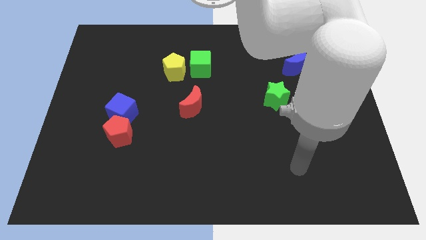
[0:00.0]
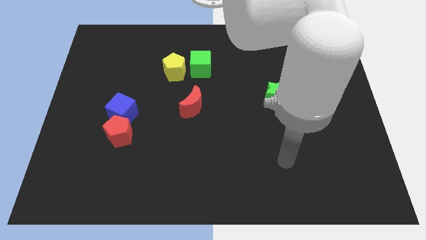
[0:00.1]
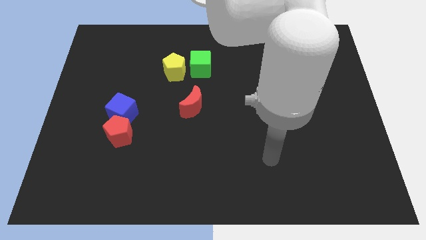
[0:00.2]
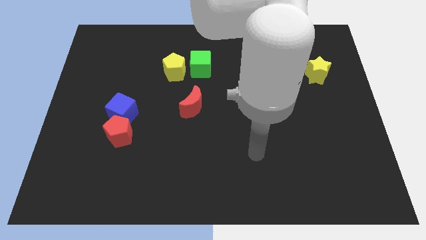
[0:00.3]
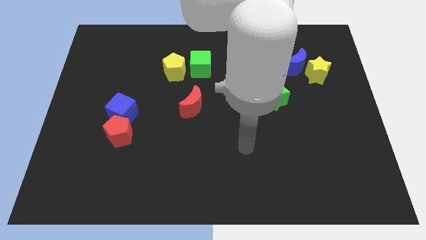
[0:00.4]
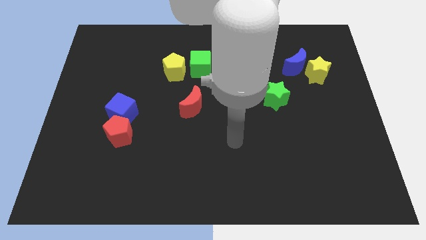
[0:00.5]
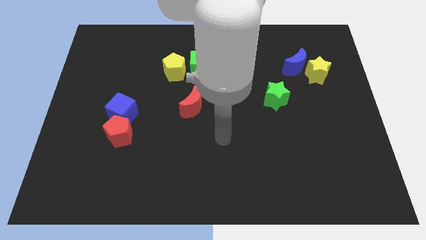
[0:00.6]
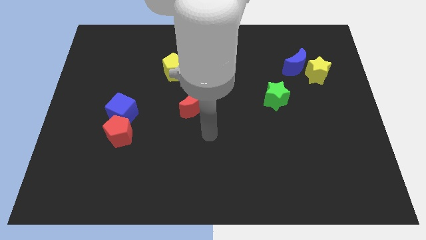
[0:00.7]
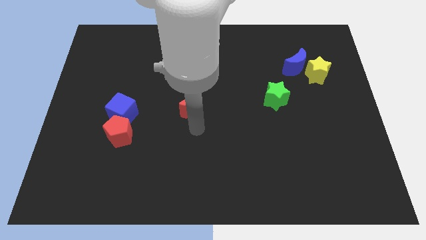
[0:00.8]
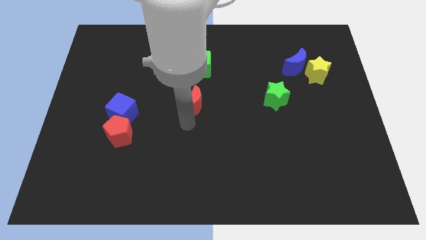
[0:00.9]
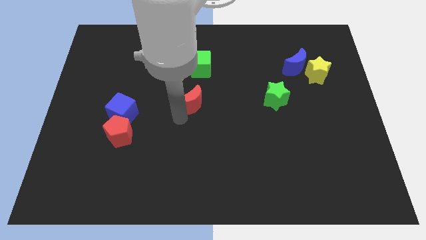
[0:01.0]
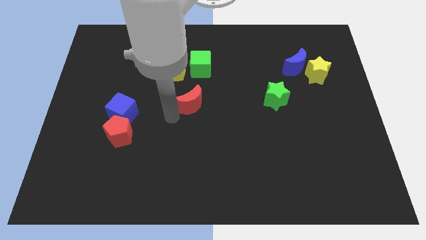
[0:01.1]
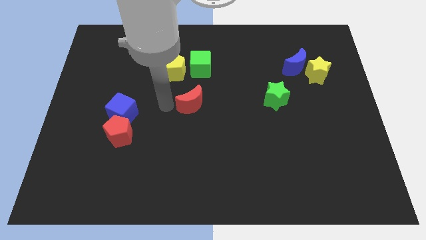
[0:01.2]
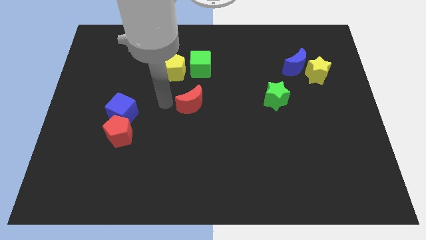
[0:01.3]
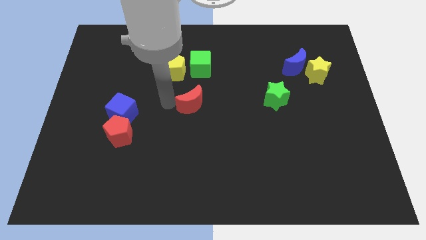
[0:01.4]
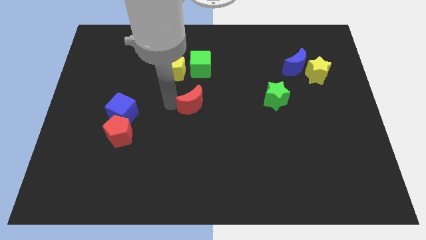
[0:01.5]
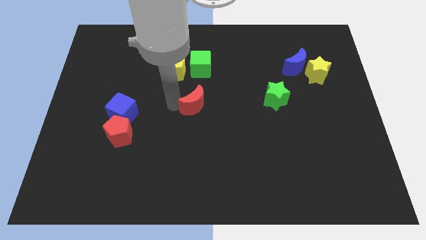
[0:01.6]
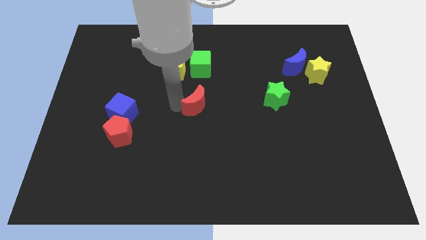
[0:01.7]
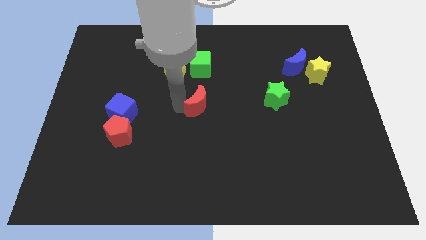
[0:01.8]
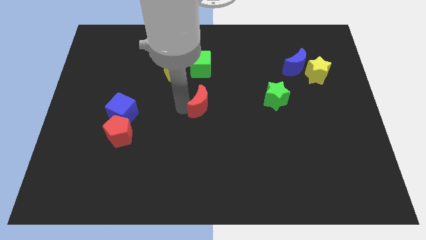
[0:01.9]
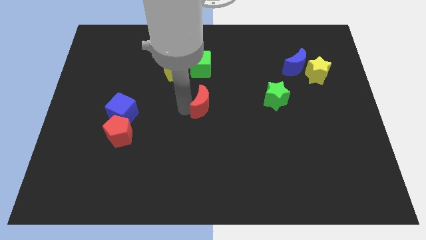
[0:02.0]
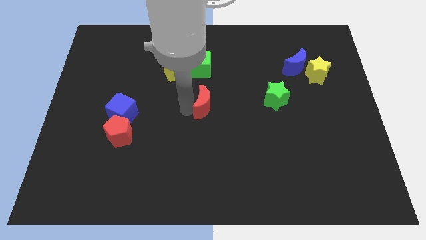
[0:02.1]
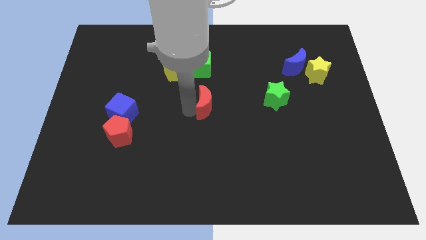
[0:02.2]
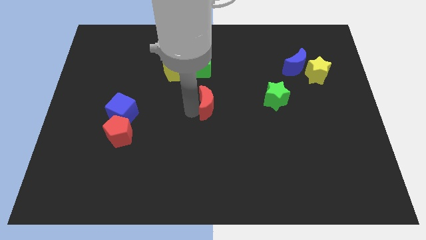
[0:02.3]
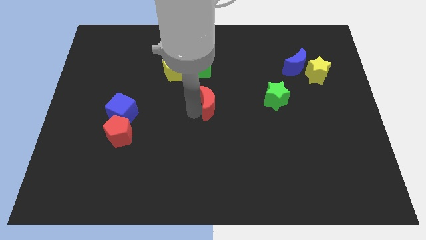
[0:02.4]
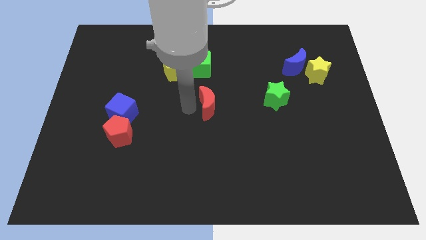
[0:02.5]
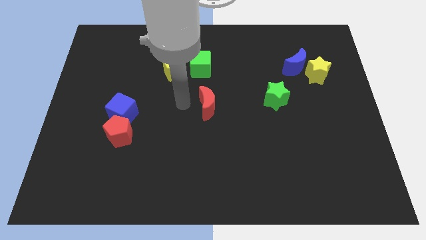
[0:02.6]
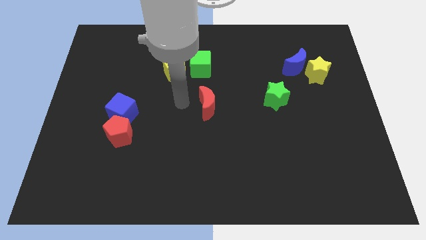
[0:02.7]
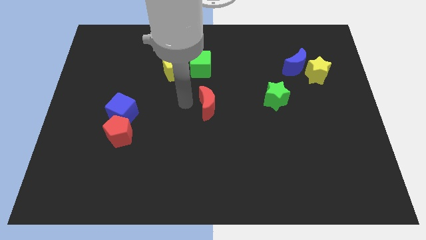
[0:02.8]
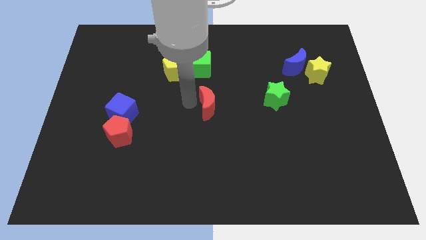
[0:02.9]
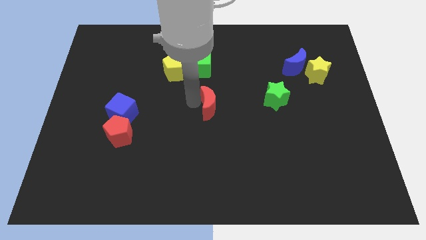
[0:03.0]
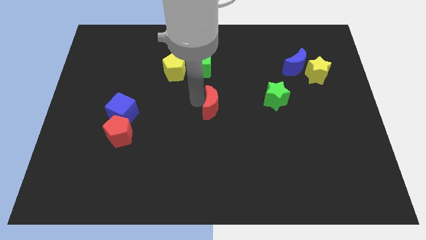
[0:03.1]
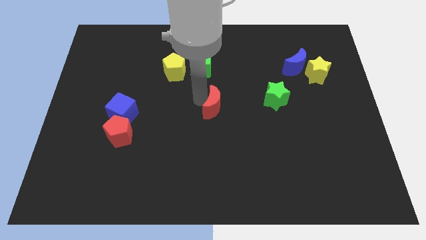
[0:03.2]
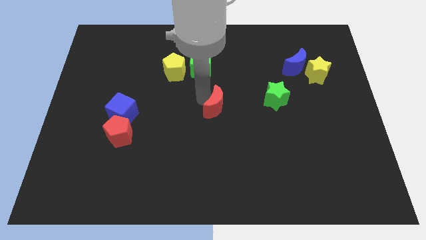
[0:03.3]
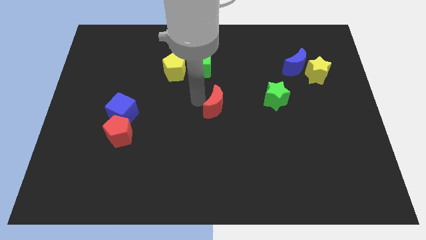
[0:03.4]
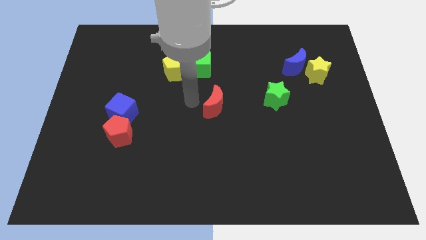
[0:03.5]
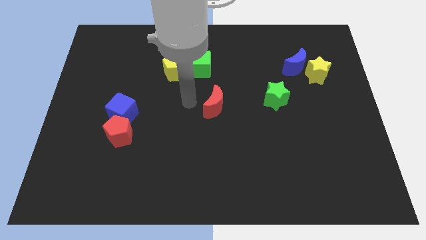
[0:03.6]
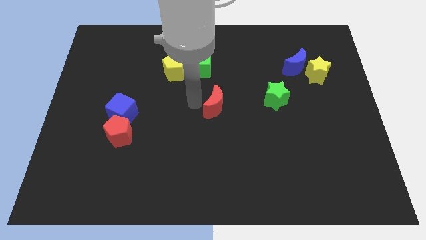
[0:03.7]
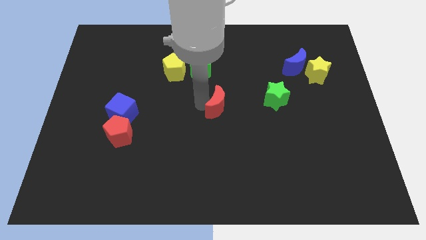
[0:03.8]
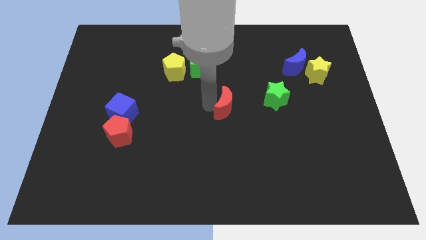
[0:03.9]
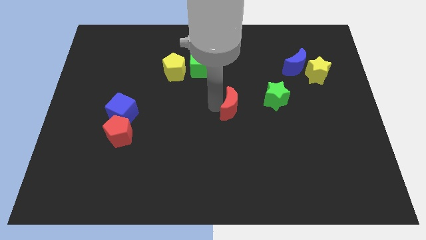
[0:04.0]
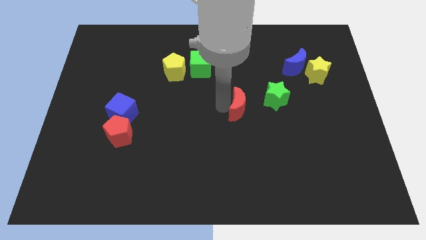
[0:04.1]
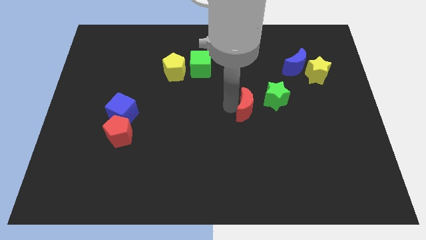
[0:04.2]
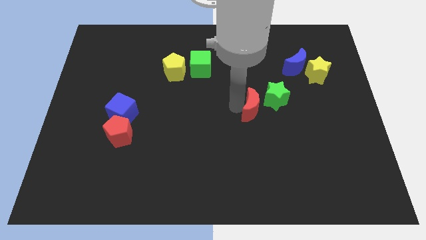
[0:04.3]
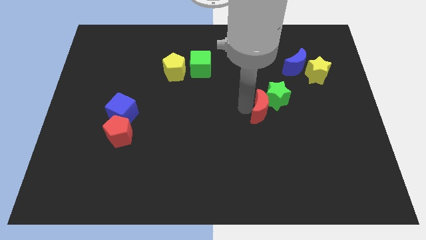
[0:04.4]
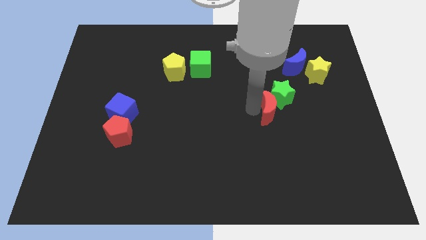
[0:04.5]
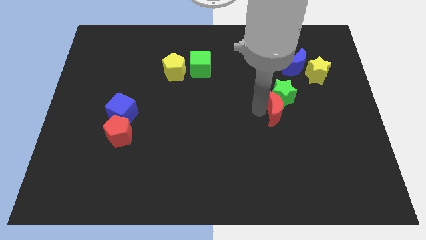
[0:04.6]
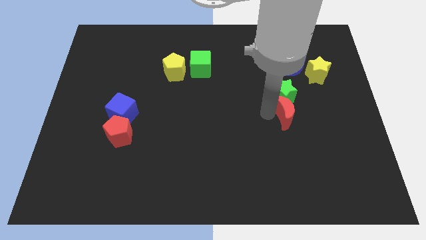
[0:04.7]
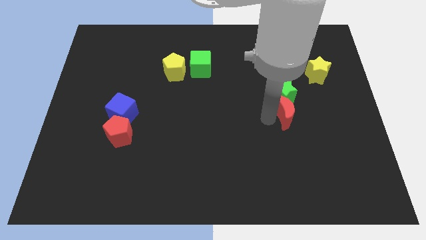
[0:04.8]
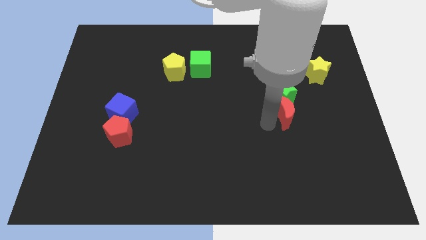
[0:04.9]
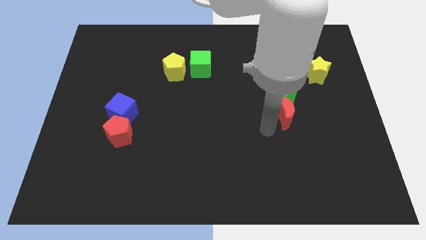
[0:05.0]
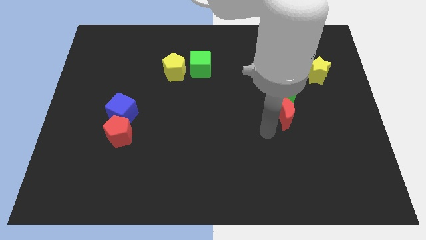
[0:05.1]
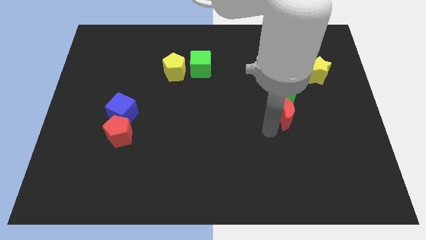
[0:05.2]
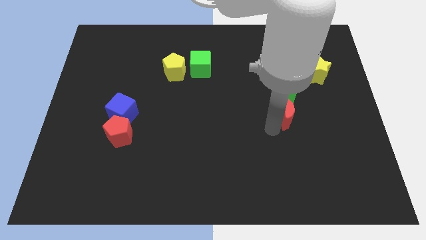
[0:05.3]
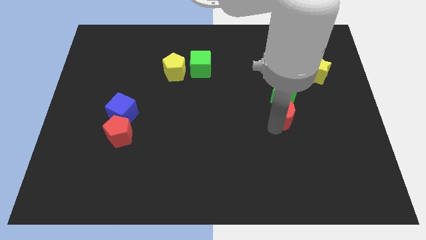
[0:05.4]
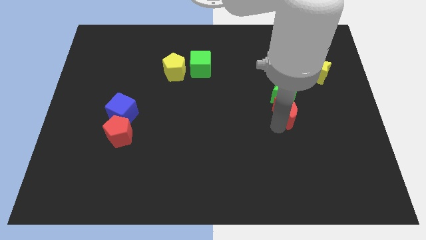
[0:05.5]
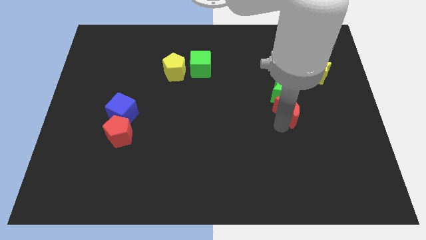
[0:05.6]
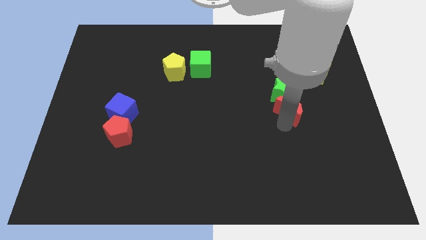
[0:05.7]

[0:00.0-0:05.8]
push the red moon to the bottom side of the blue moon

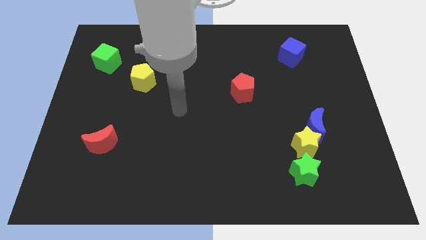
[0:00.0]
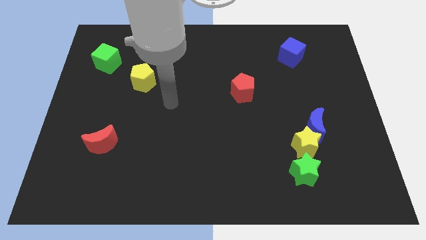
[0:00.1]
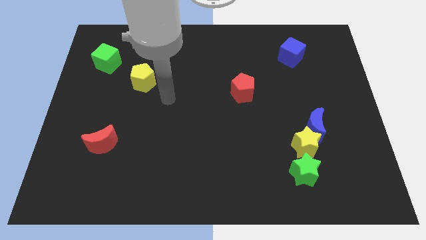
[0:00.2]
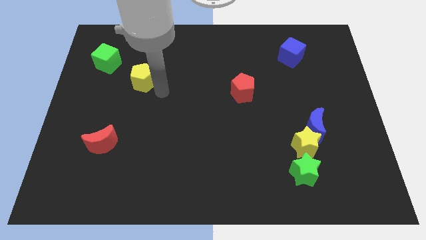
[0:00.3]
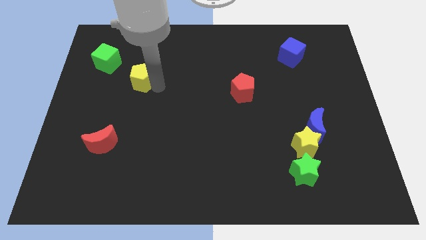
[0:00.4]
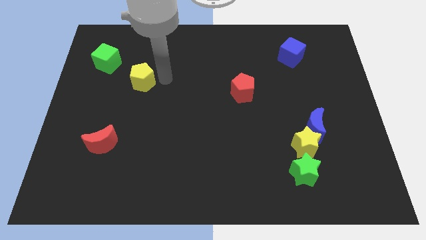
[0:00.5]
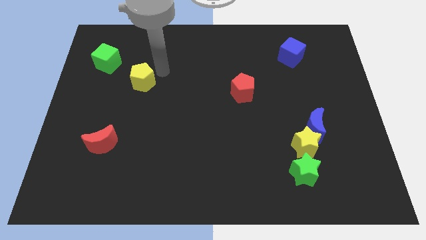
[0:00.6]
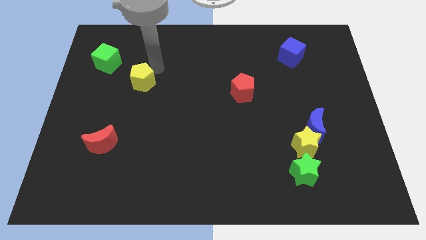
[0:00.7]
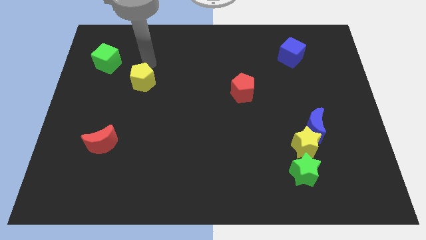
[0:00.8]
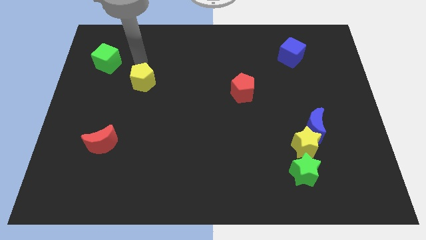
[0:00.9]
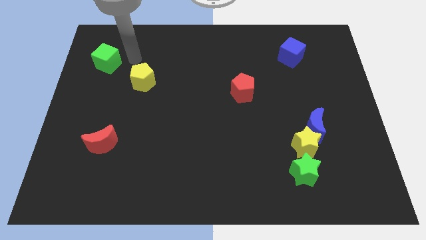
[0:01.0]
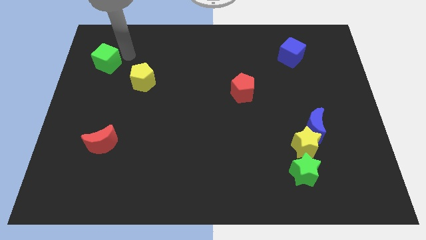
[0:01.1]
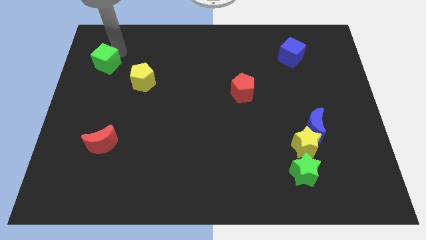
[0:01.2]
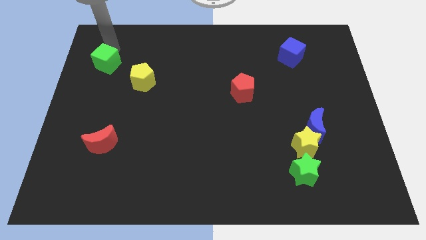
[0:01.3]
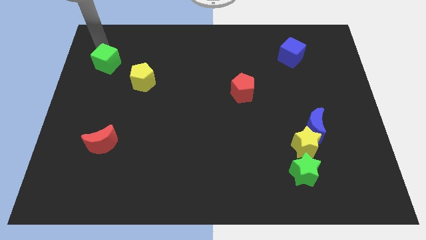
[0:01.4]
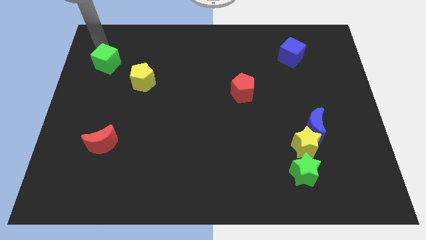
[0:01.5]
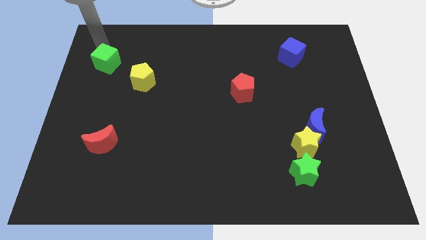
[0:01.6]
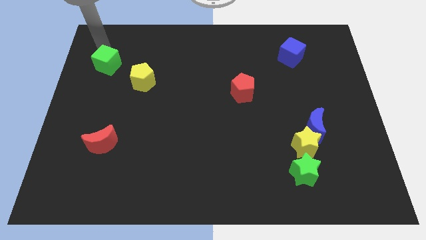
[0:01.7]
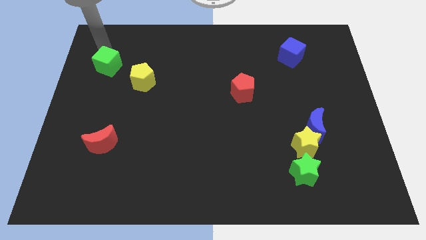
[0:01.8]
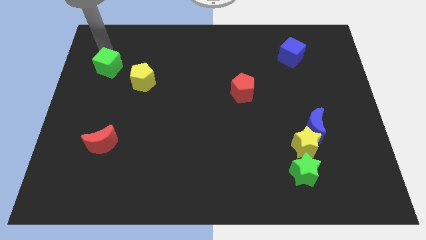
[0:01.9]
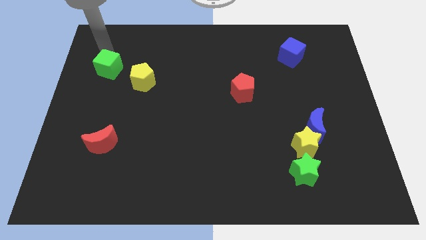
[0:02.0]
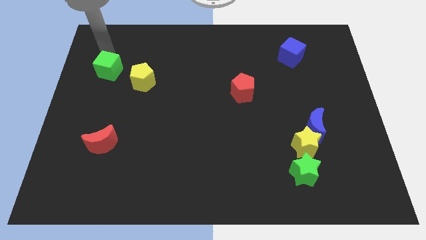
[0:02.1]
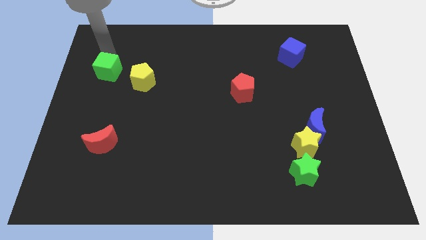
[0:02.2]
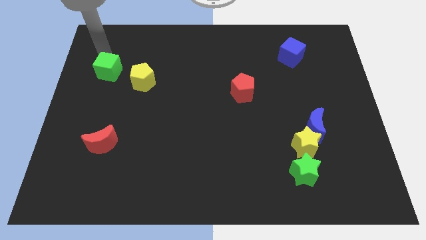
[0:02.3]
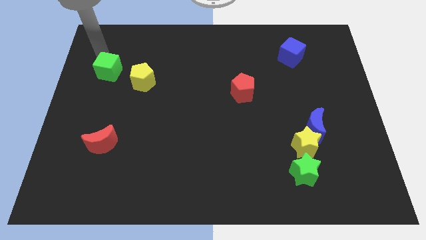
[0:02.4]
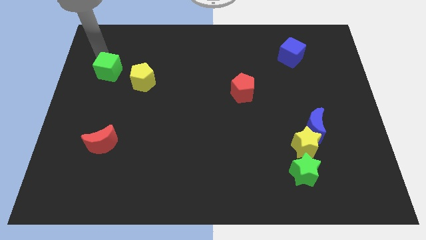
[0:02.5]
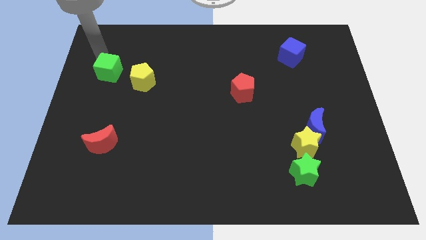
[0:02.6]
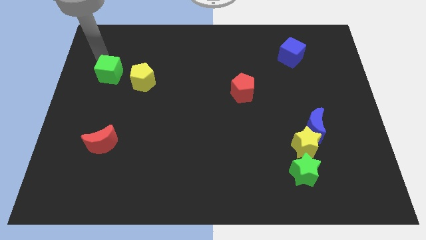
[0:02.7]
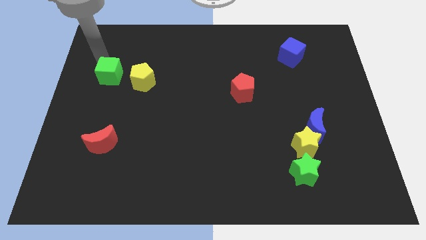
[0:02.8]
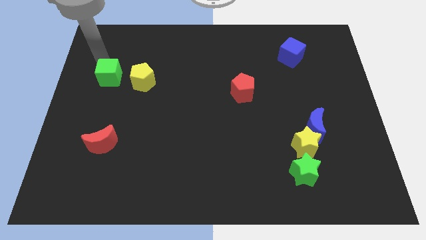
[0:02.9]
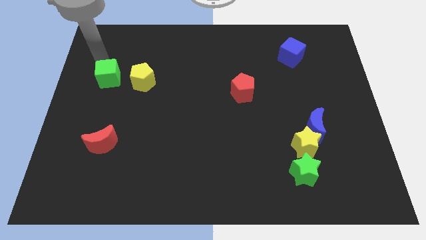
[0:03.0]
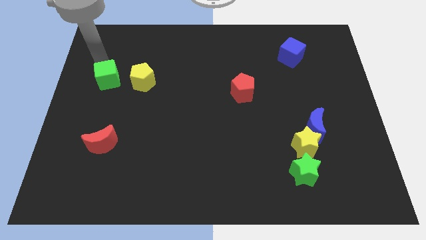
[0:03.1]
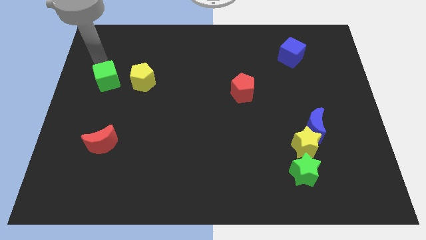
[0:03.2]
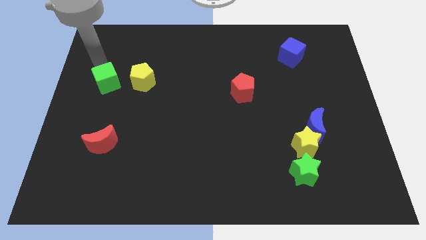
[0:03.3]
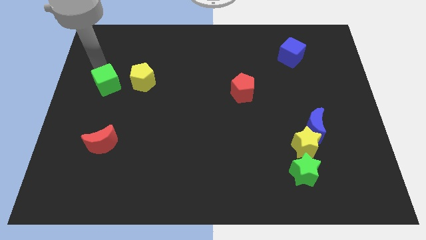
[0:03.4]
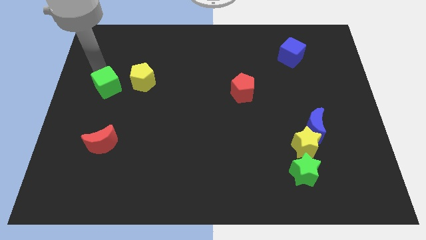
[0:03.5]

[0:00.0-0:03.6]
put the green cube to the bottom left side of the yellow pentagon
